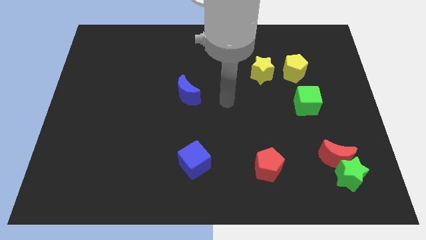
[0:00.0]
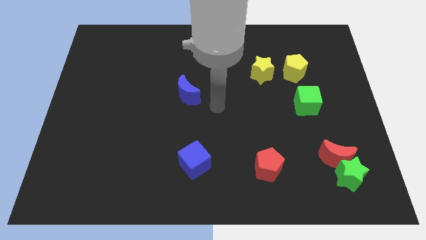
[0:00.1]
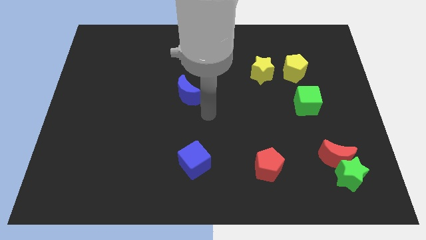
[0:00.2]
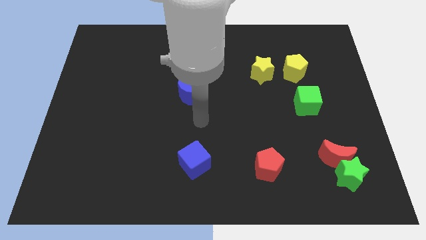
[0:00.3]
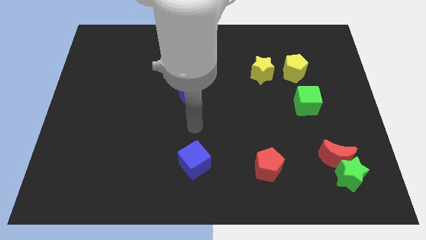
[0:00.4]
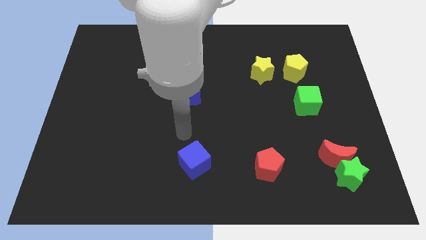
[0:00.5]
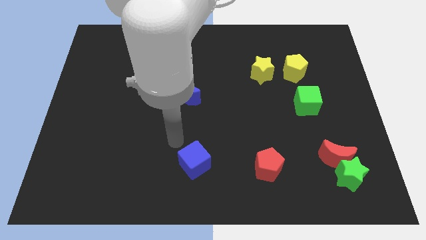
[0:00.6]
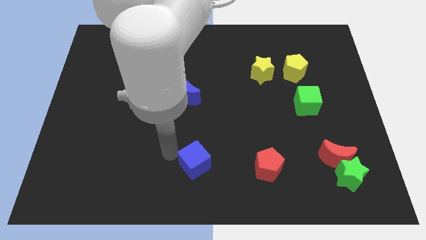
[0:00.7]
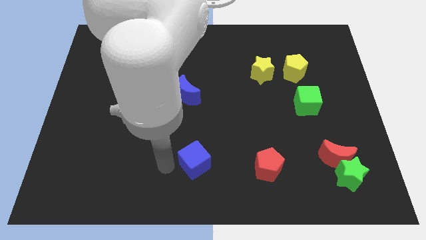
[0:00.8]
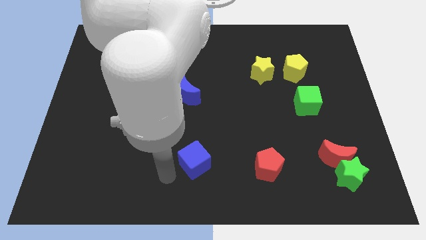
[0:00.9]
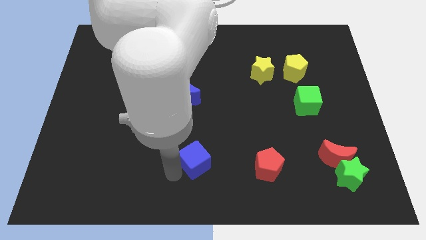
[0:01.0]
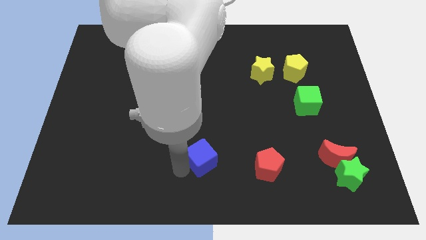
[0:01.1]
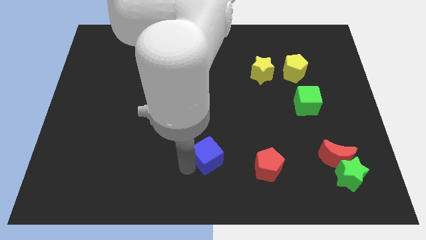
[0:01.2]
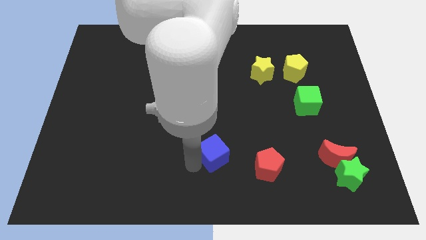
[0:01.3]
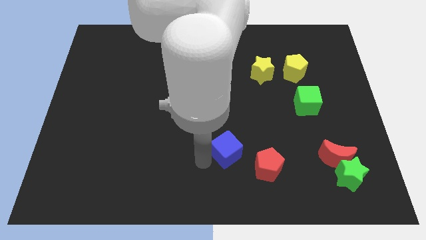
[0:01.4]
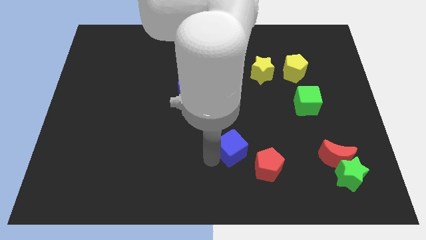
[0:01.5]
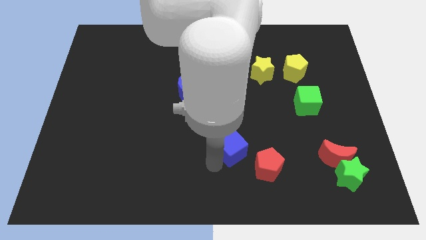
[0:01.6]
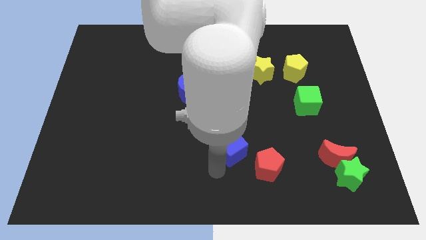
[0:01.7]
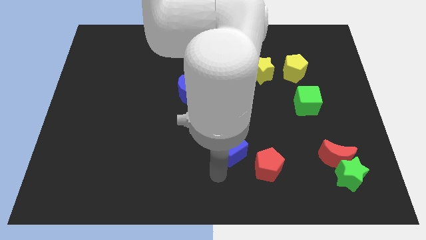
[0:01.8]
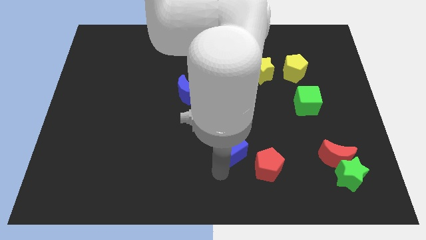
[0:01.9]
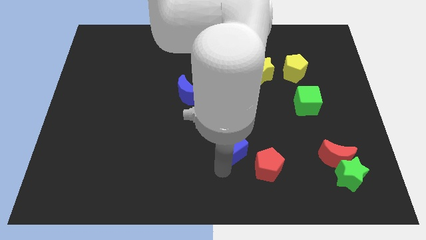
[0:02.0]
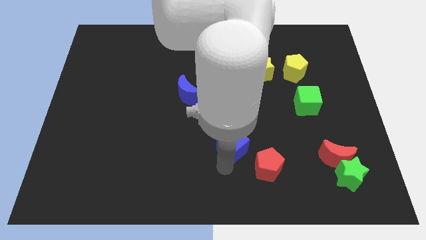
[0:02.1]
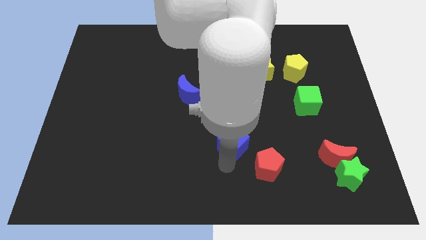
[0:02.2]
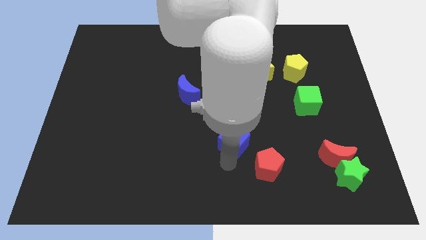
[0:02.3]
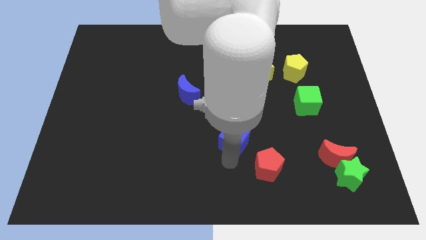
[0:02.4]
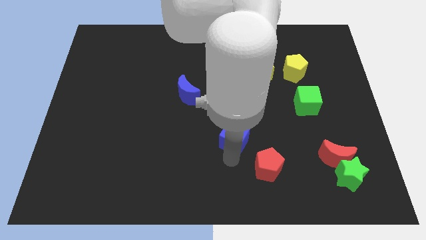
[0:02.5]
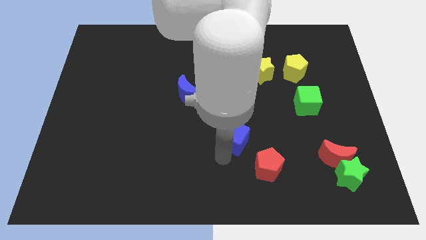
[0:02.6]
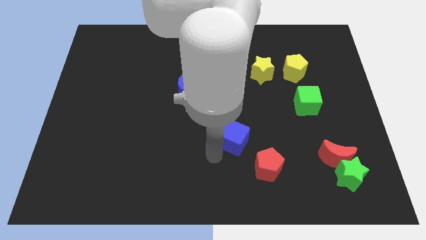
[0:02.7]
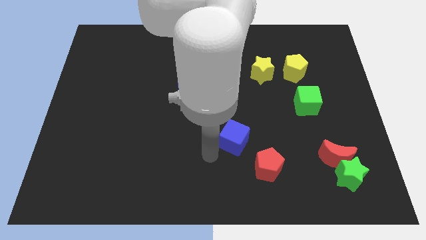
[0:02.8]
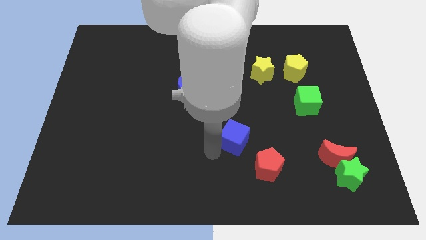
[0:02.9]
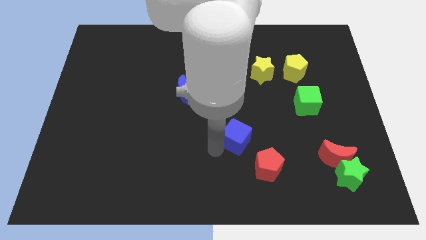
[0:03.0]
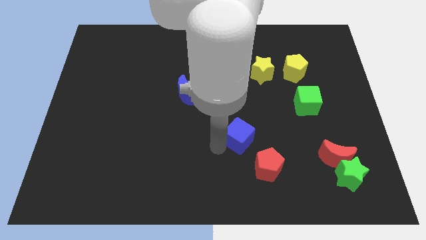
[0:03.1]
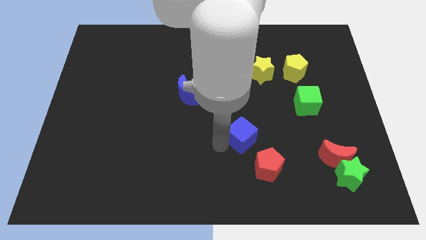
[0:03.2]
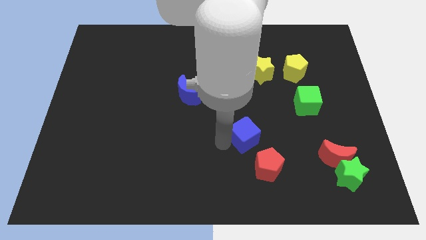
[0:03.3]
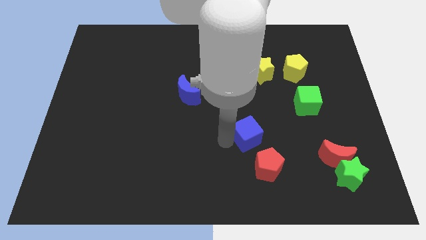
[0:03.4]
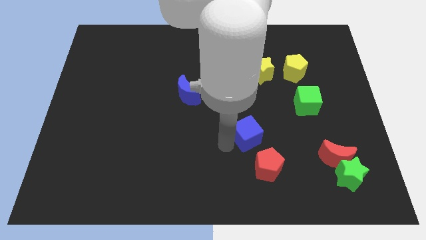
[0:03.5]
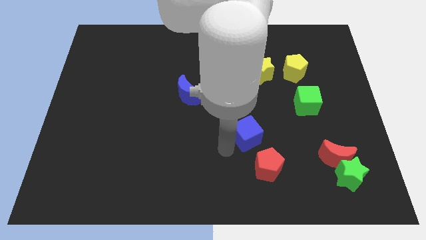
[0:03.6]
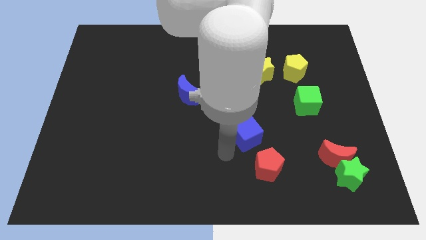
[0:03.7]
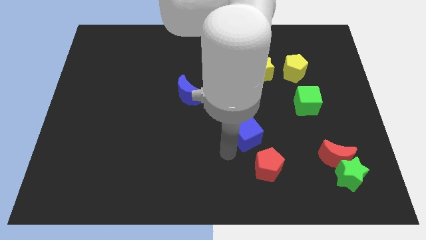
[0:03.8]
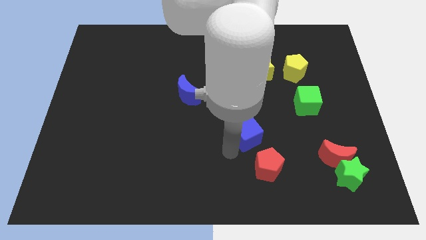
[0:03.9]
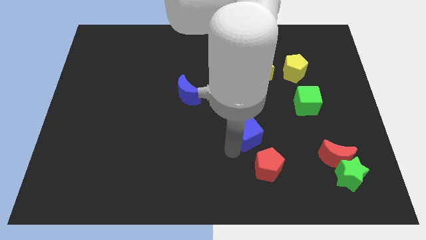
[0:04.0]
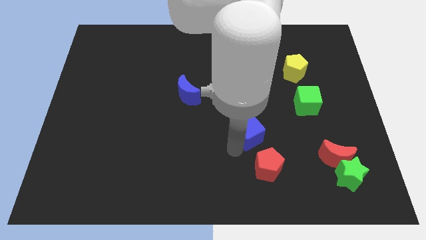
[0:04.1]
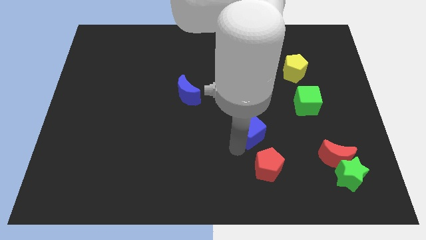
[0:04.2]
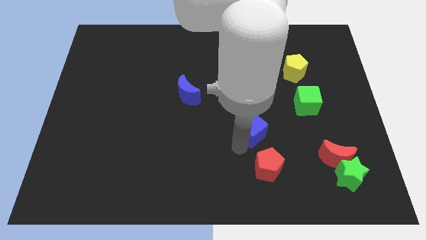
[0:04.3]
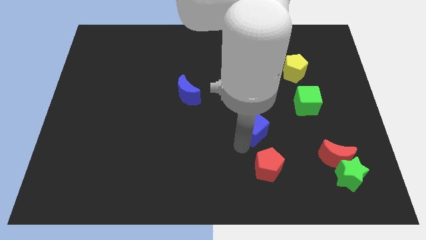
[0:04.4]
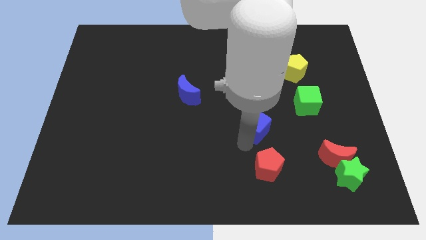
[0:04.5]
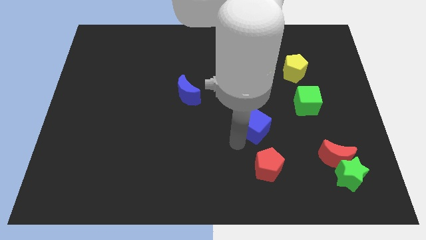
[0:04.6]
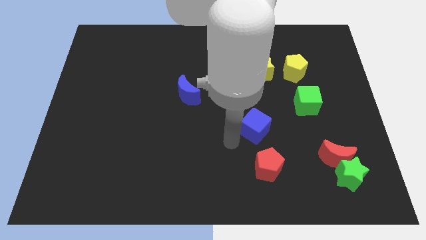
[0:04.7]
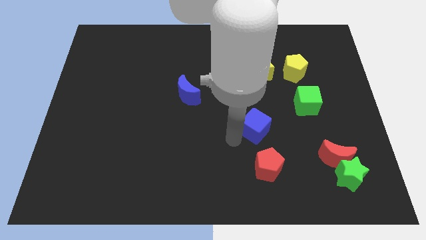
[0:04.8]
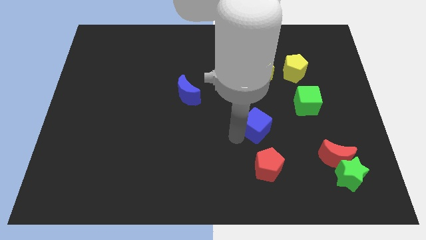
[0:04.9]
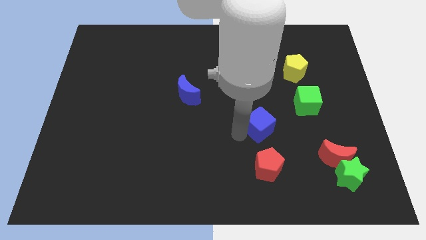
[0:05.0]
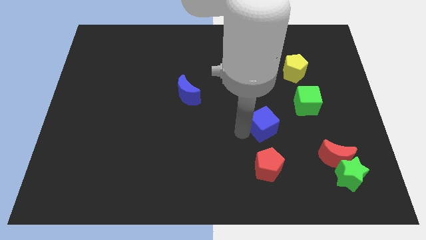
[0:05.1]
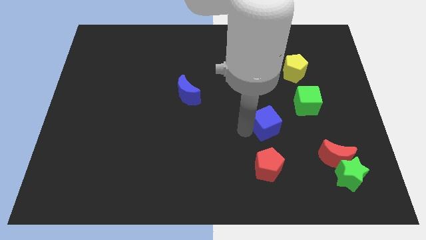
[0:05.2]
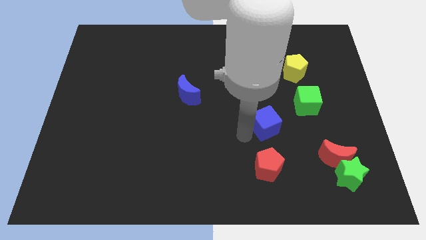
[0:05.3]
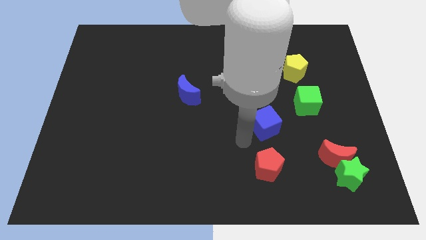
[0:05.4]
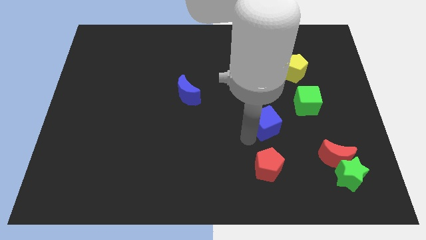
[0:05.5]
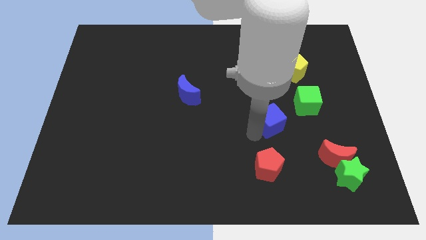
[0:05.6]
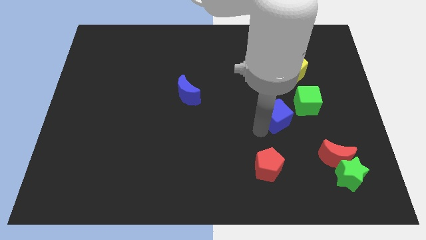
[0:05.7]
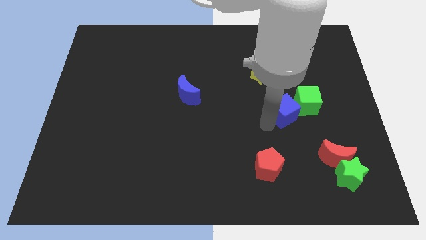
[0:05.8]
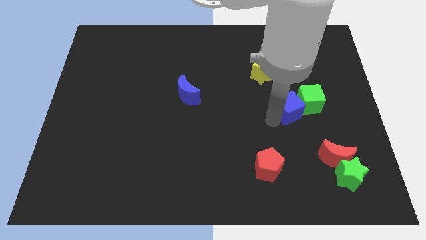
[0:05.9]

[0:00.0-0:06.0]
slide the blue cube next to the green cube

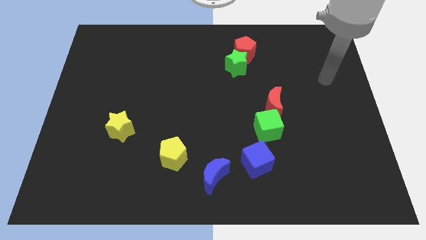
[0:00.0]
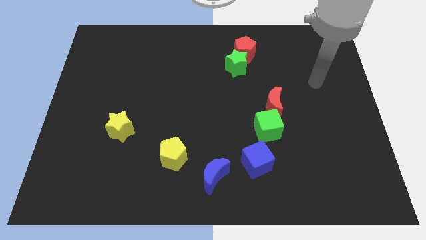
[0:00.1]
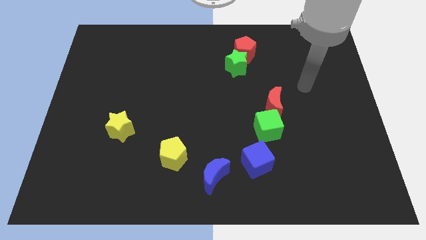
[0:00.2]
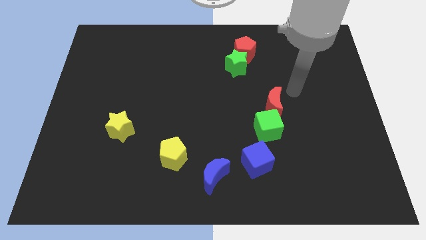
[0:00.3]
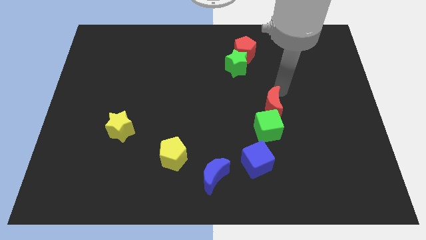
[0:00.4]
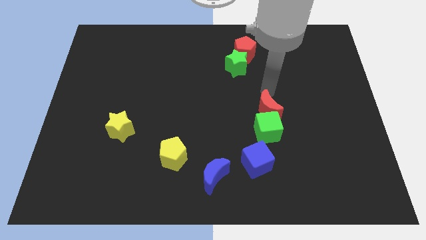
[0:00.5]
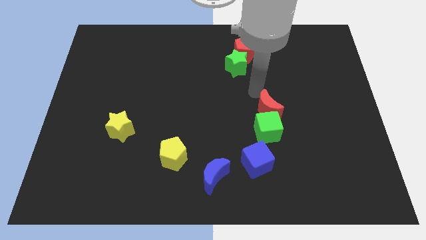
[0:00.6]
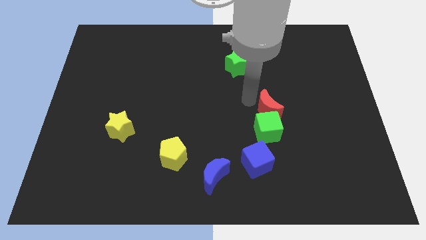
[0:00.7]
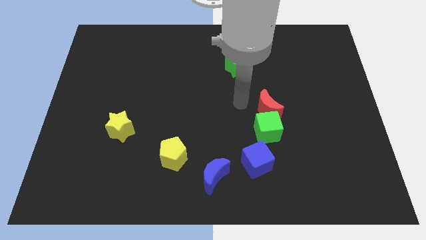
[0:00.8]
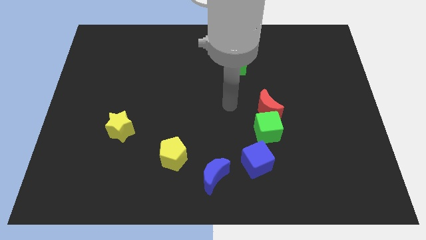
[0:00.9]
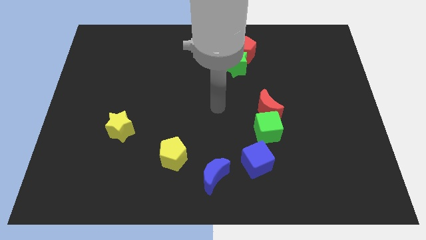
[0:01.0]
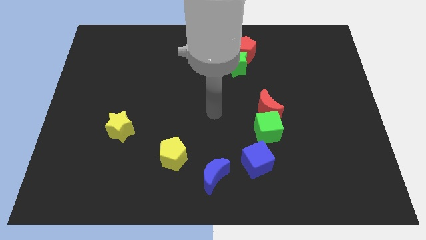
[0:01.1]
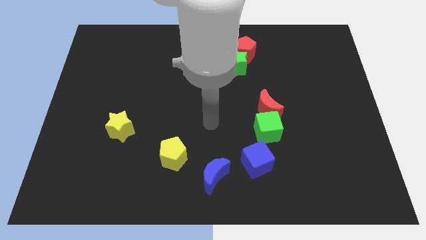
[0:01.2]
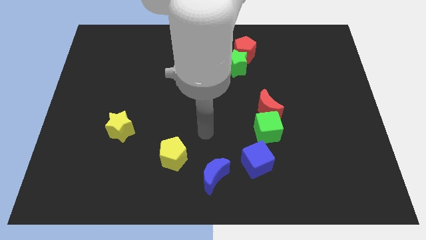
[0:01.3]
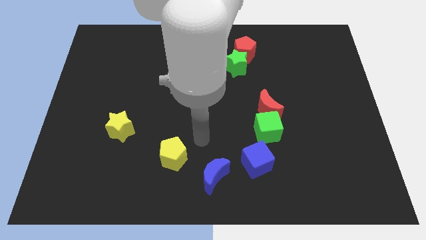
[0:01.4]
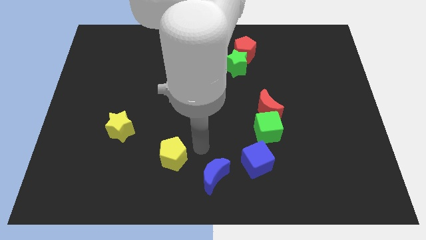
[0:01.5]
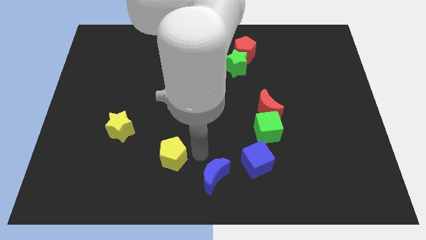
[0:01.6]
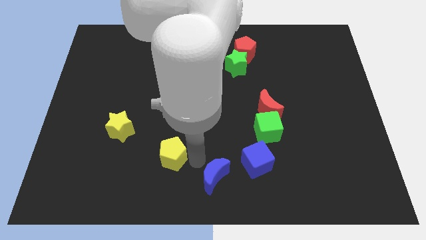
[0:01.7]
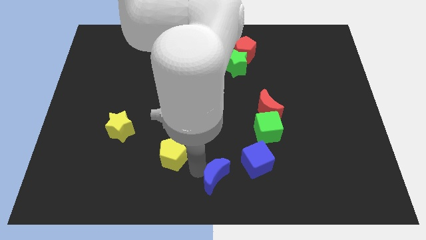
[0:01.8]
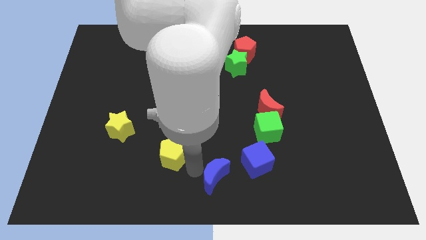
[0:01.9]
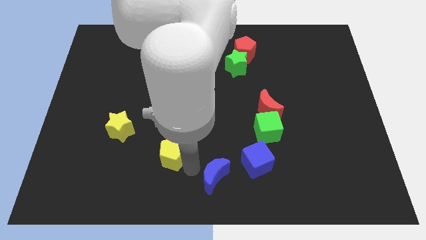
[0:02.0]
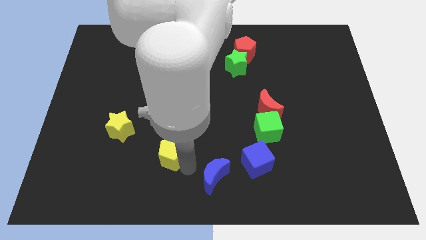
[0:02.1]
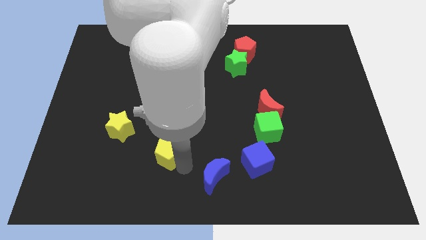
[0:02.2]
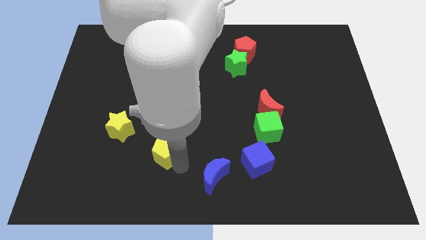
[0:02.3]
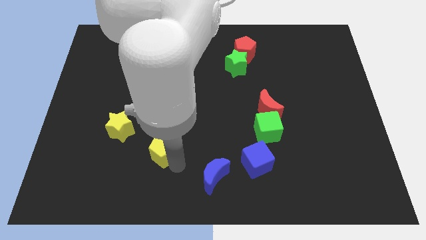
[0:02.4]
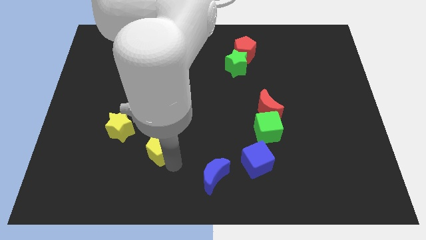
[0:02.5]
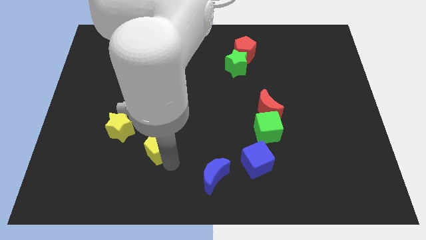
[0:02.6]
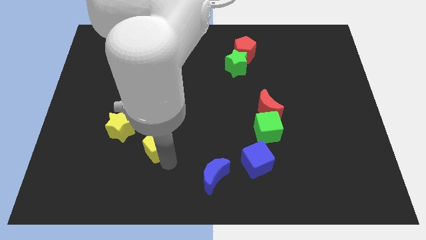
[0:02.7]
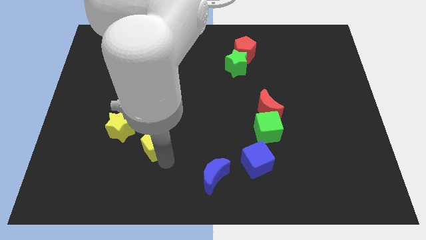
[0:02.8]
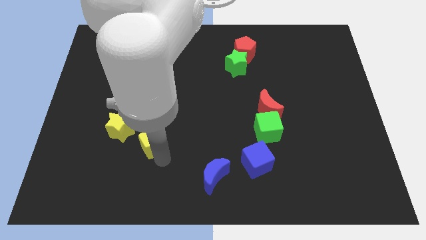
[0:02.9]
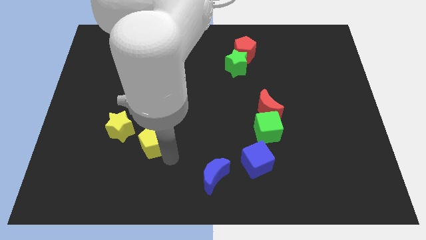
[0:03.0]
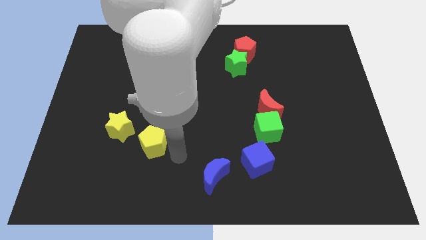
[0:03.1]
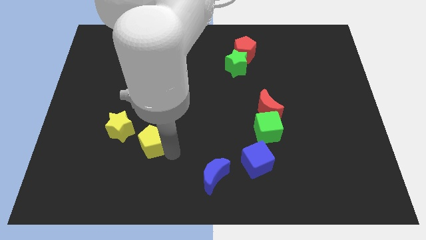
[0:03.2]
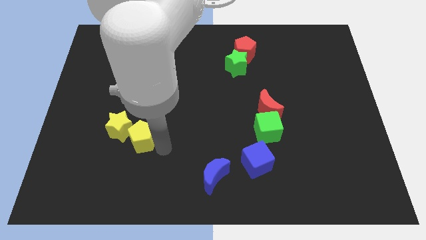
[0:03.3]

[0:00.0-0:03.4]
slide the yellow pentagon to the yellow star
